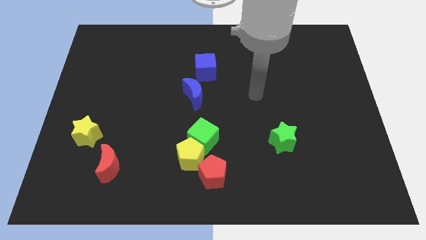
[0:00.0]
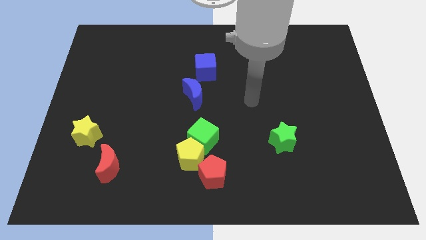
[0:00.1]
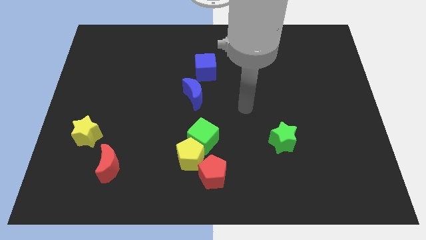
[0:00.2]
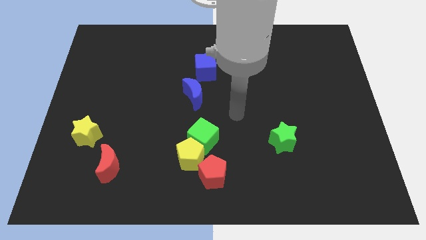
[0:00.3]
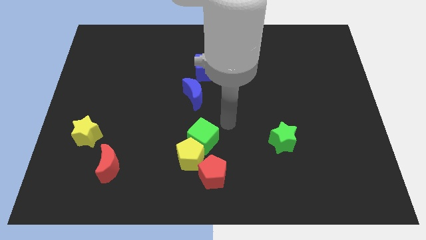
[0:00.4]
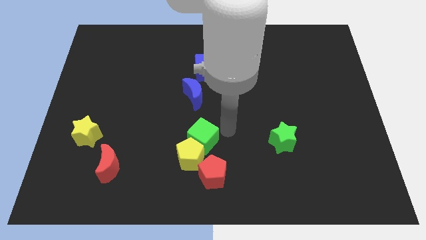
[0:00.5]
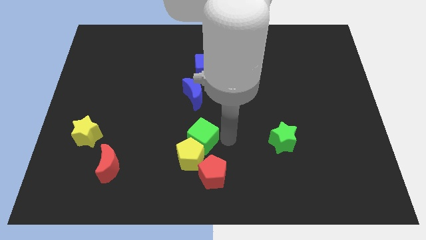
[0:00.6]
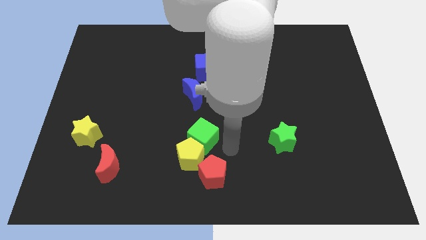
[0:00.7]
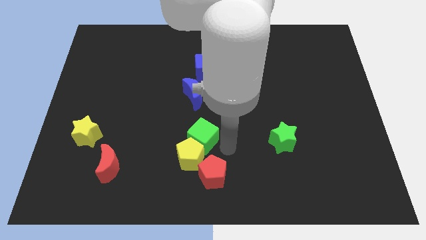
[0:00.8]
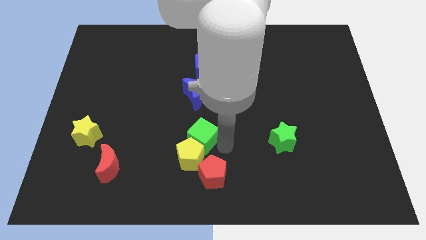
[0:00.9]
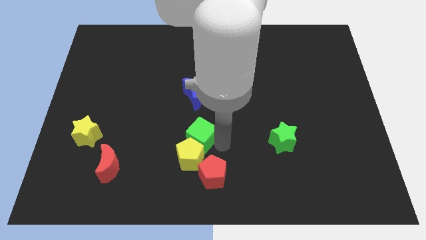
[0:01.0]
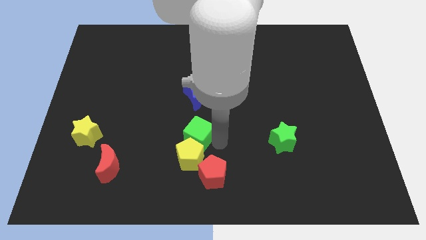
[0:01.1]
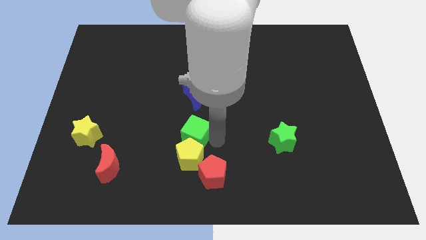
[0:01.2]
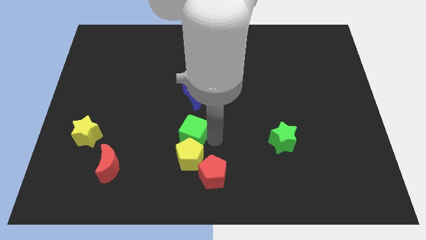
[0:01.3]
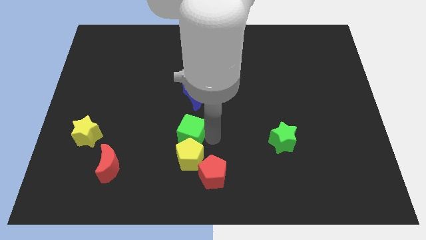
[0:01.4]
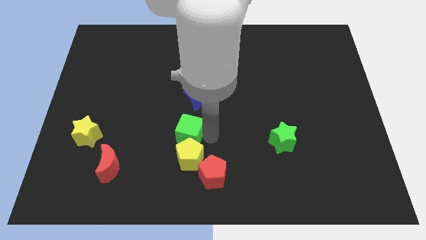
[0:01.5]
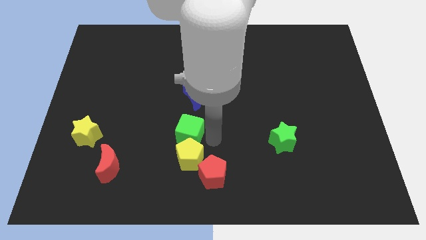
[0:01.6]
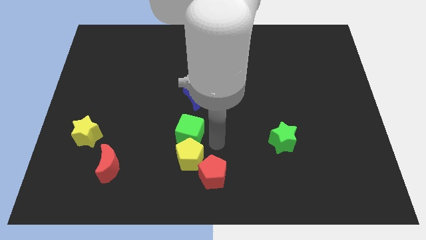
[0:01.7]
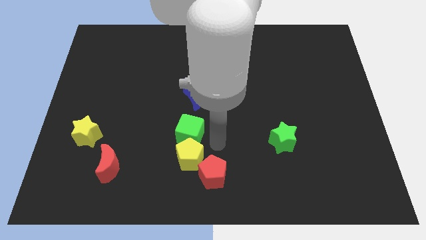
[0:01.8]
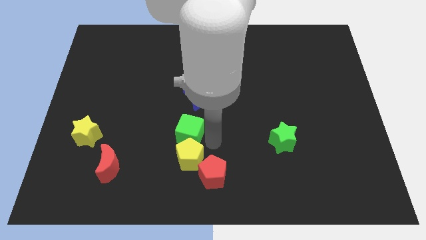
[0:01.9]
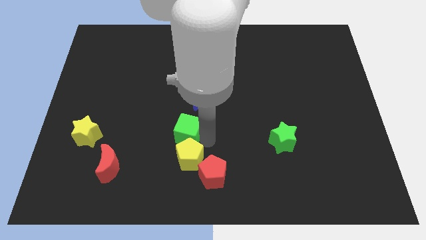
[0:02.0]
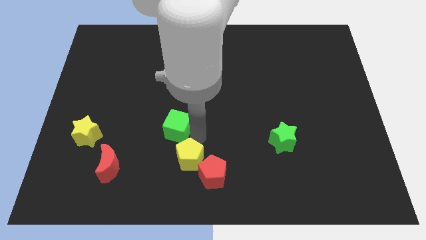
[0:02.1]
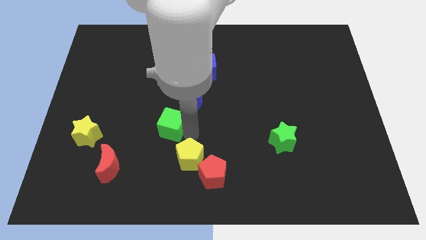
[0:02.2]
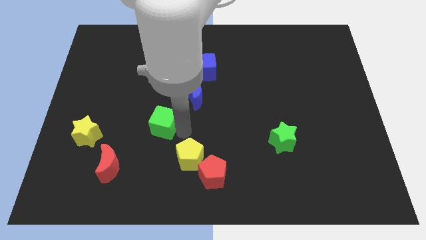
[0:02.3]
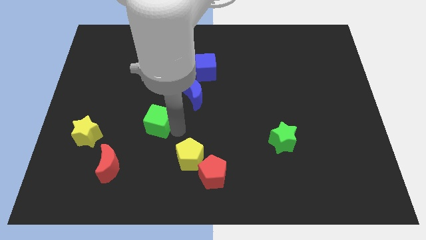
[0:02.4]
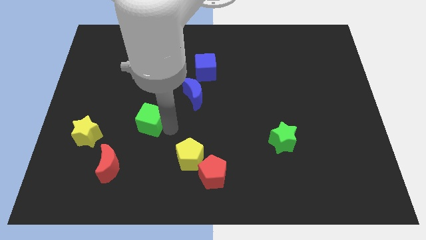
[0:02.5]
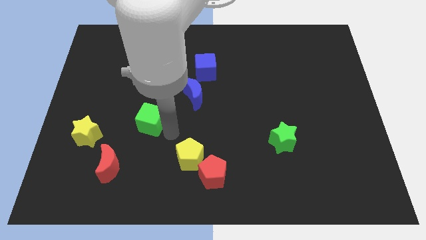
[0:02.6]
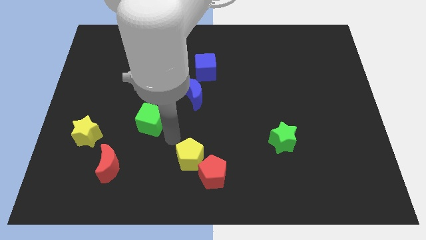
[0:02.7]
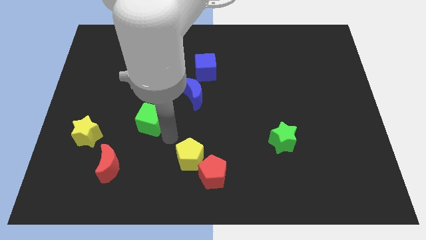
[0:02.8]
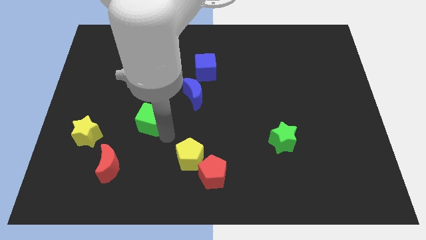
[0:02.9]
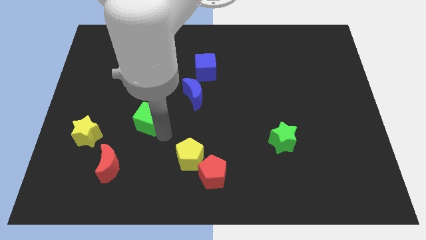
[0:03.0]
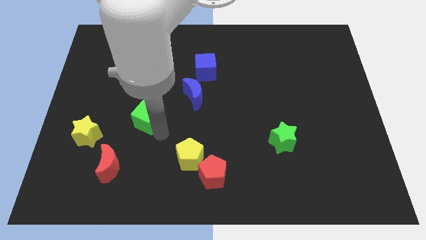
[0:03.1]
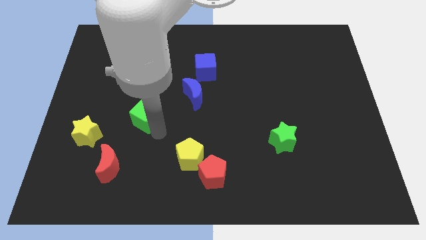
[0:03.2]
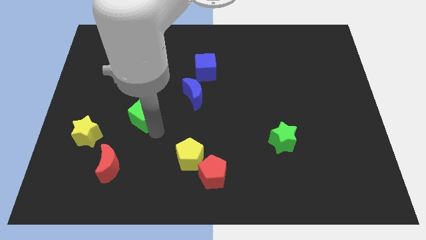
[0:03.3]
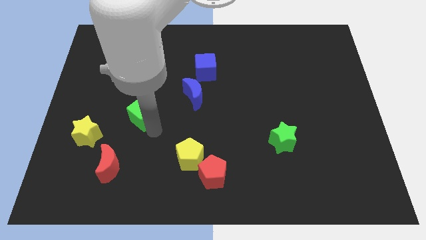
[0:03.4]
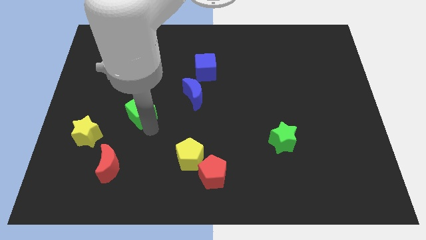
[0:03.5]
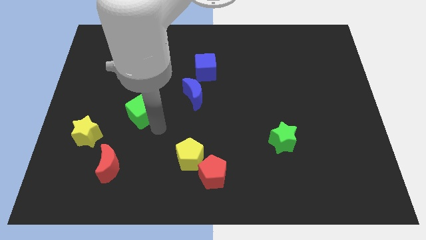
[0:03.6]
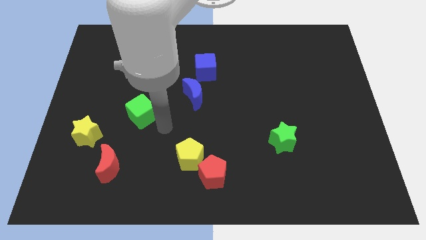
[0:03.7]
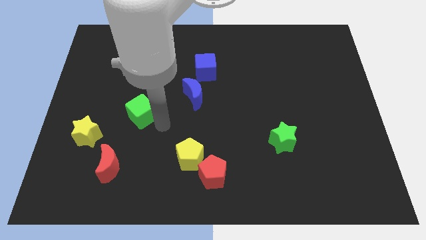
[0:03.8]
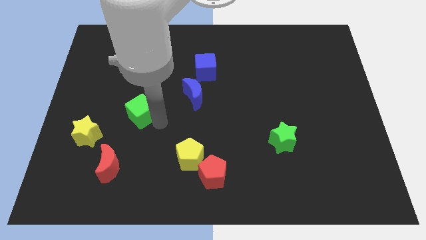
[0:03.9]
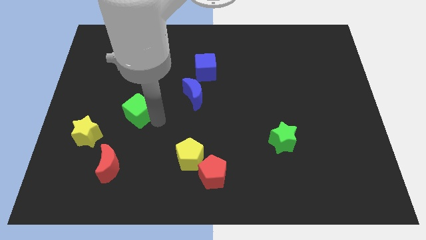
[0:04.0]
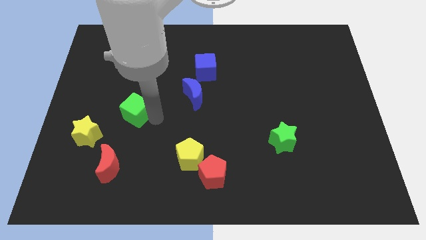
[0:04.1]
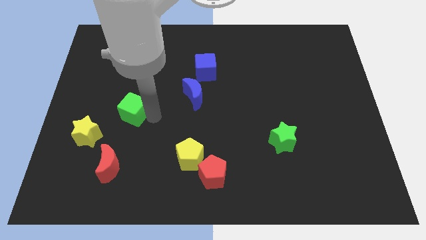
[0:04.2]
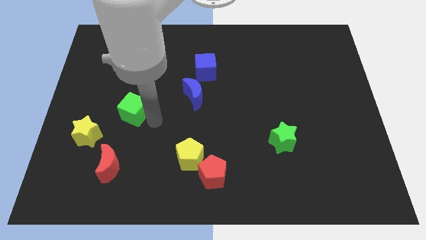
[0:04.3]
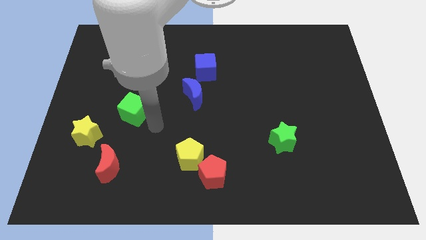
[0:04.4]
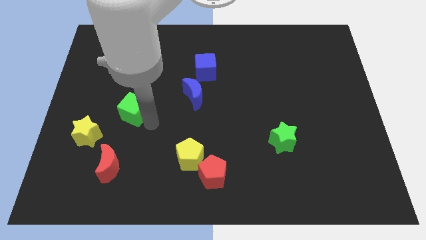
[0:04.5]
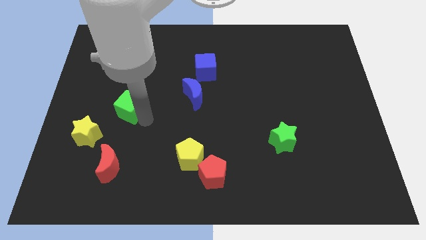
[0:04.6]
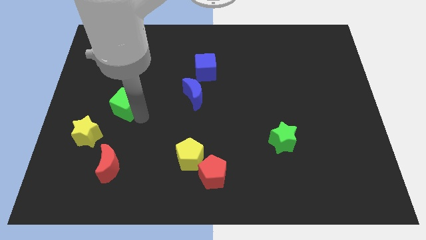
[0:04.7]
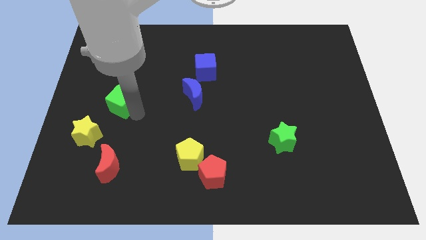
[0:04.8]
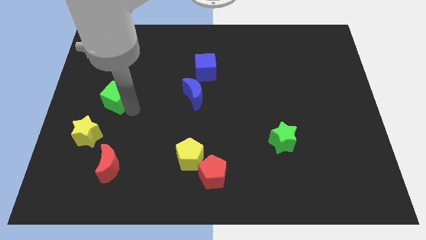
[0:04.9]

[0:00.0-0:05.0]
move the green cube to the top side of the yellow star

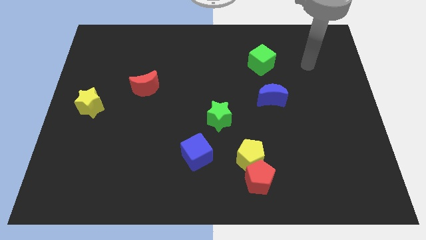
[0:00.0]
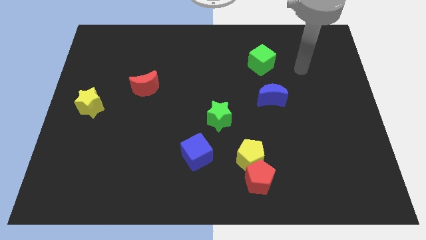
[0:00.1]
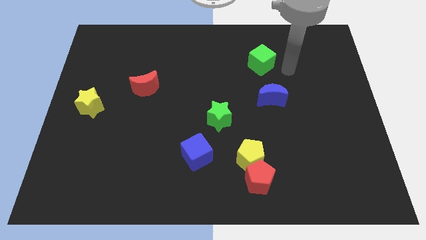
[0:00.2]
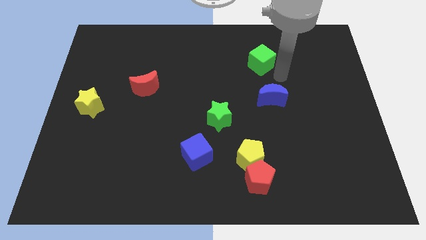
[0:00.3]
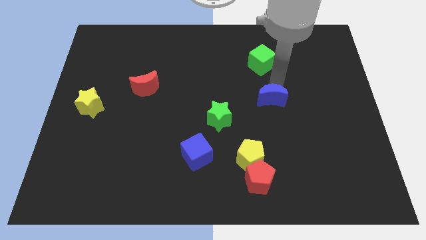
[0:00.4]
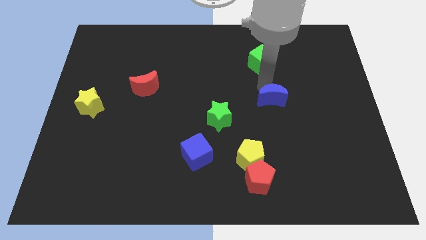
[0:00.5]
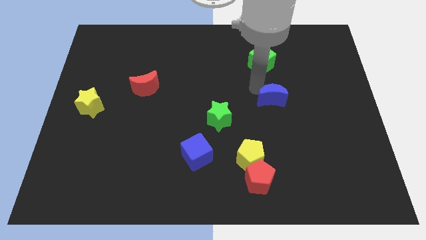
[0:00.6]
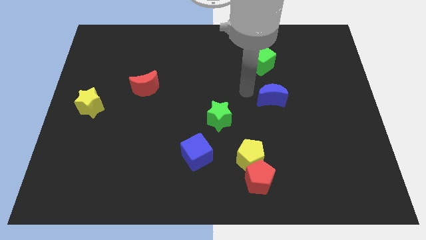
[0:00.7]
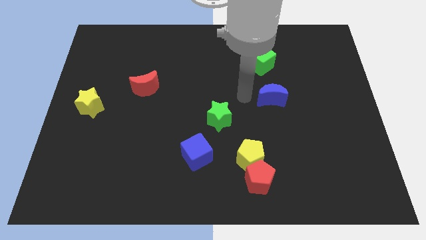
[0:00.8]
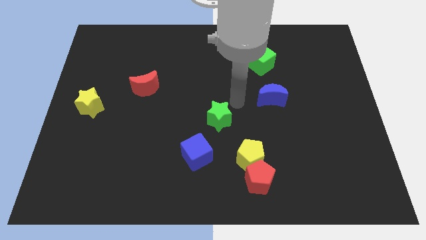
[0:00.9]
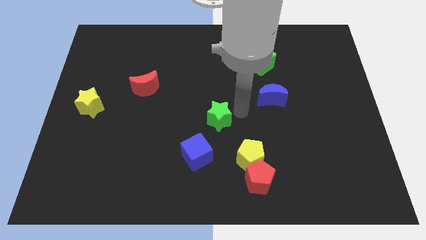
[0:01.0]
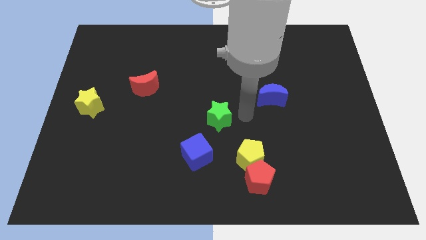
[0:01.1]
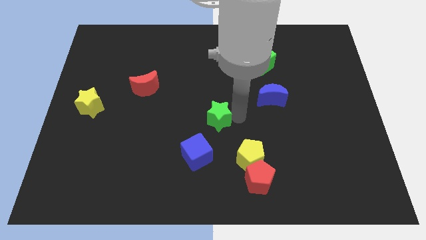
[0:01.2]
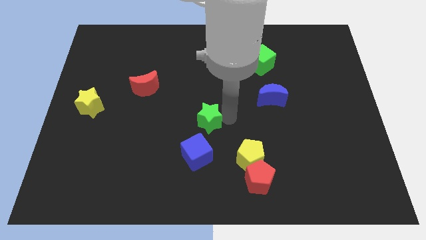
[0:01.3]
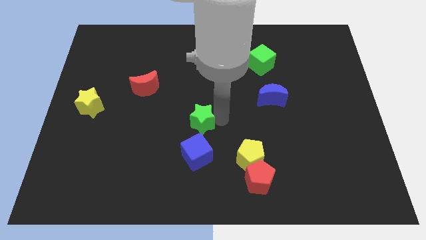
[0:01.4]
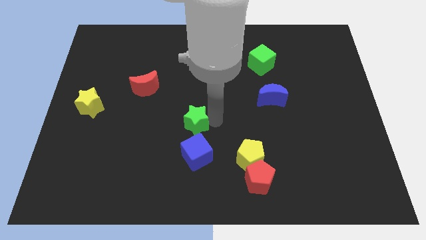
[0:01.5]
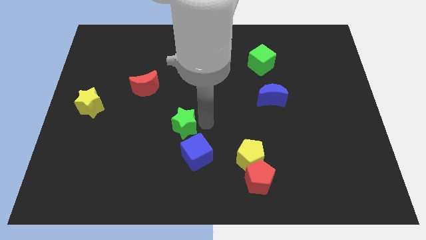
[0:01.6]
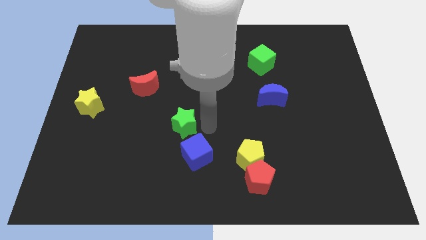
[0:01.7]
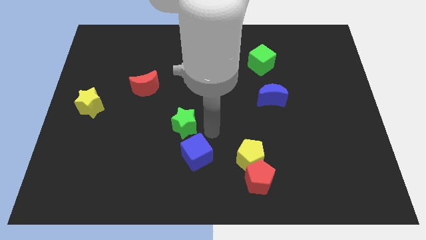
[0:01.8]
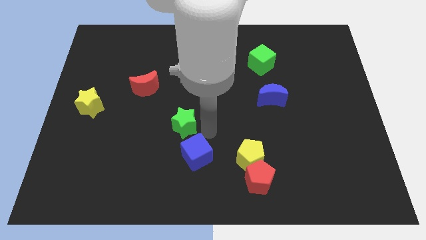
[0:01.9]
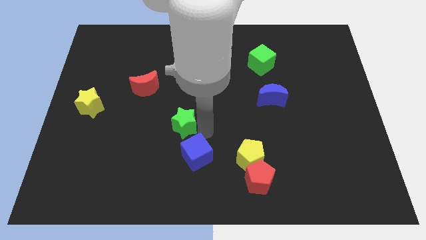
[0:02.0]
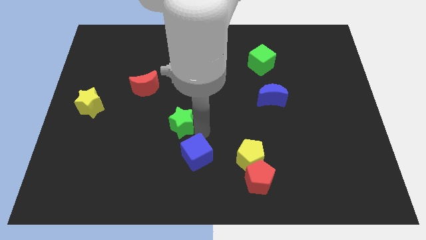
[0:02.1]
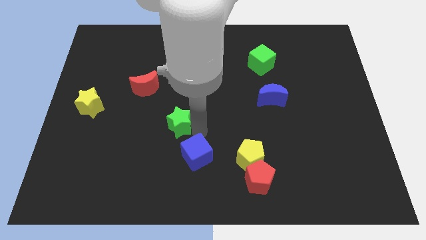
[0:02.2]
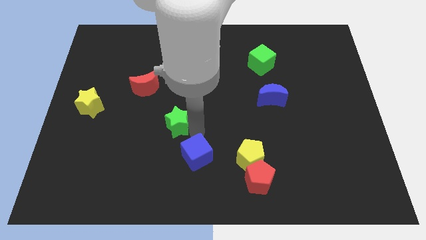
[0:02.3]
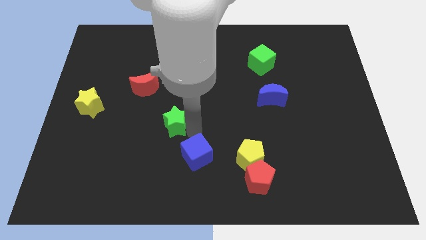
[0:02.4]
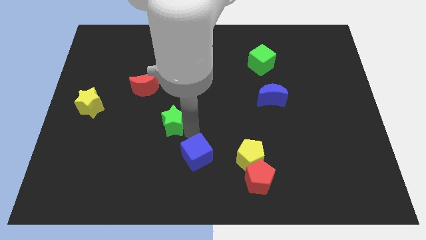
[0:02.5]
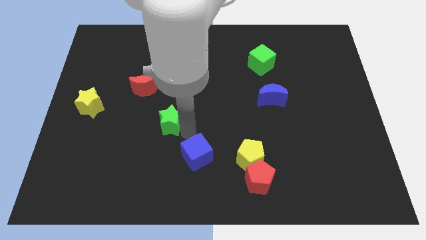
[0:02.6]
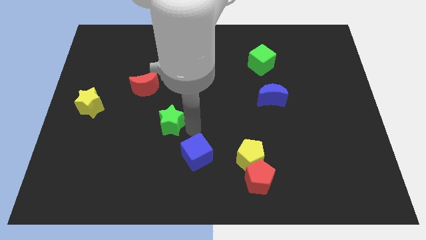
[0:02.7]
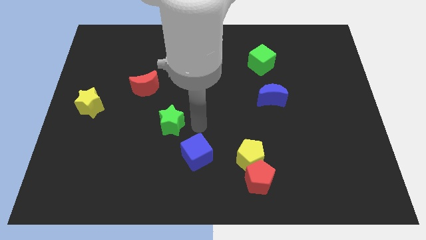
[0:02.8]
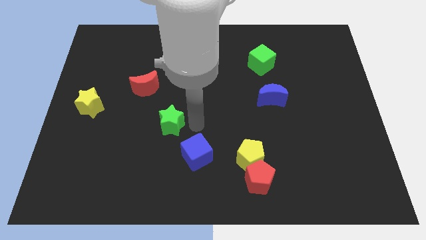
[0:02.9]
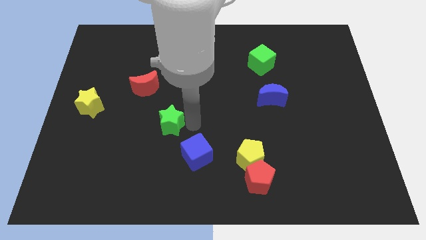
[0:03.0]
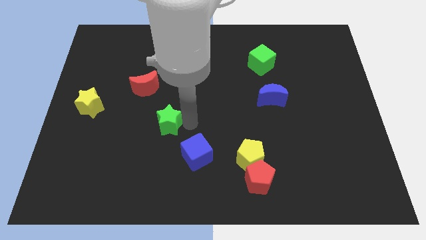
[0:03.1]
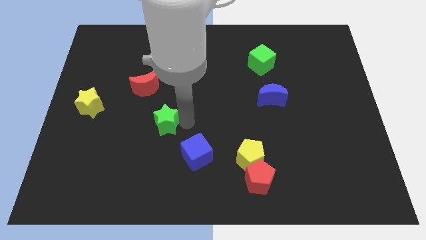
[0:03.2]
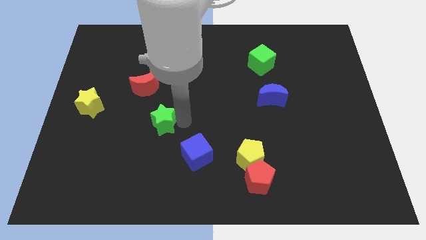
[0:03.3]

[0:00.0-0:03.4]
slide the green star below the red moon
